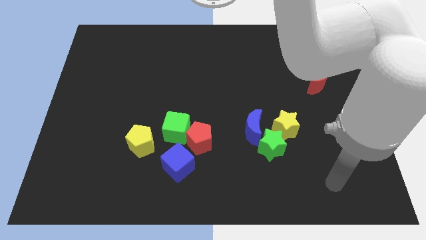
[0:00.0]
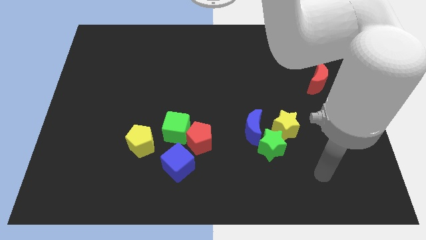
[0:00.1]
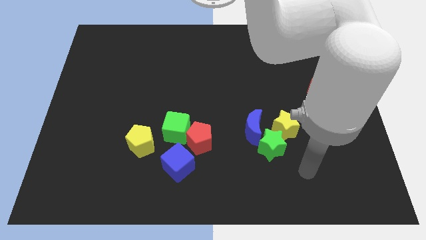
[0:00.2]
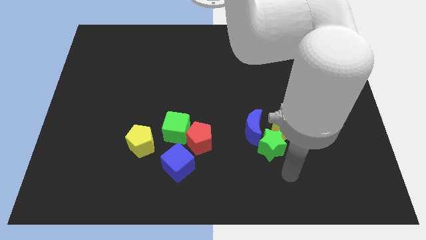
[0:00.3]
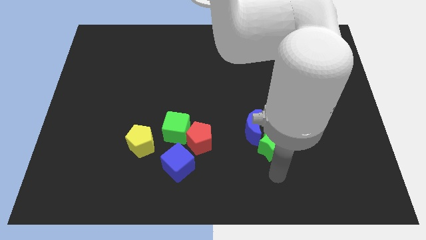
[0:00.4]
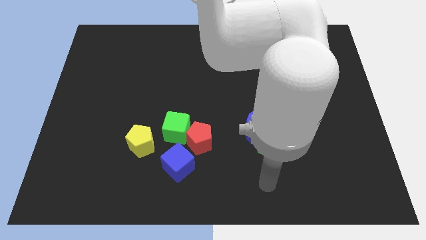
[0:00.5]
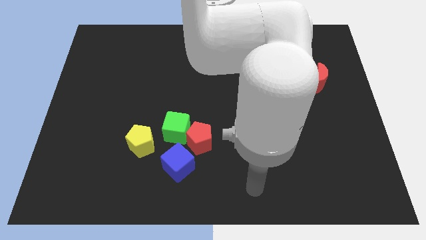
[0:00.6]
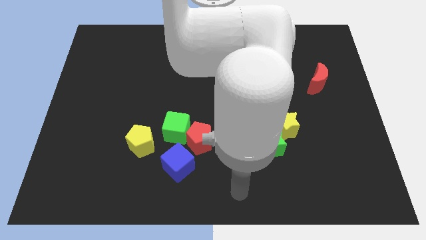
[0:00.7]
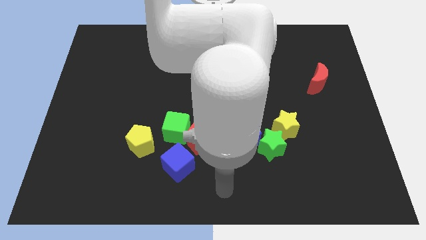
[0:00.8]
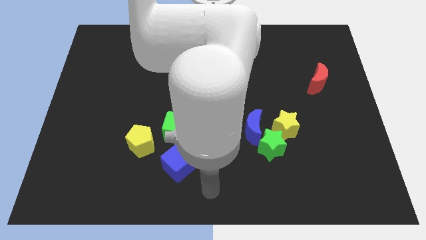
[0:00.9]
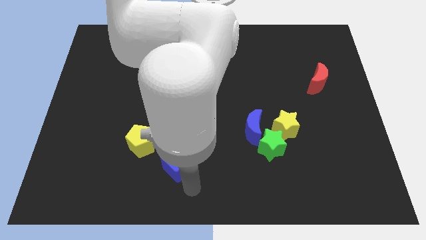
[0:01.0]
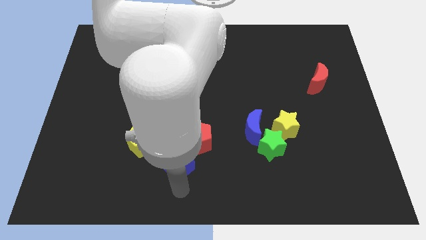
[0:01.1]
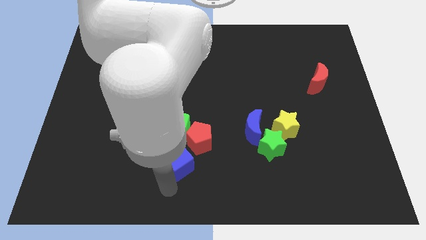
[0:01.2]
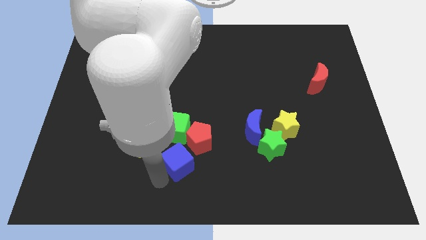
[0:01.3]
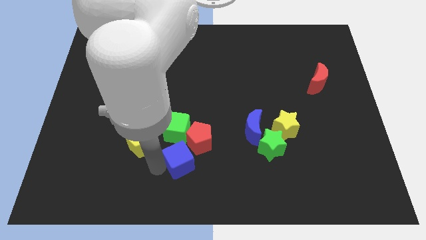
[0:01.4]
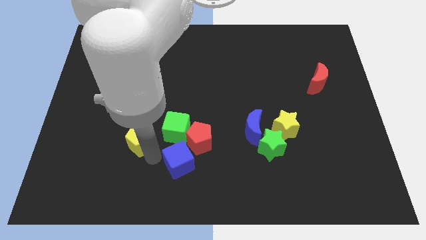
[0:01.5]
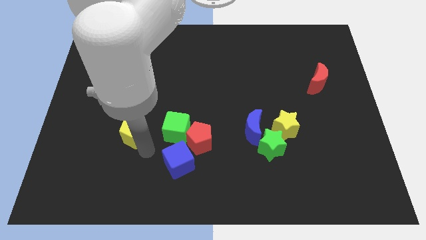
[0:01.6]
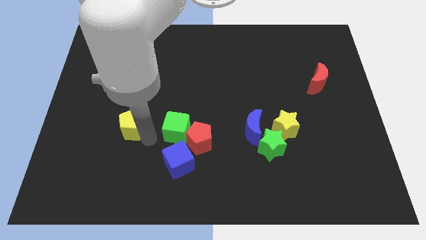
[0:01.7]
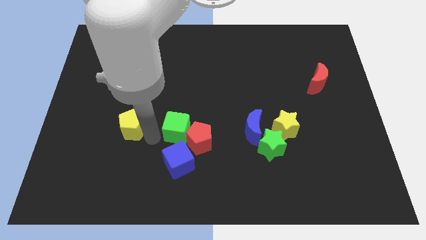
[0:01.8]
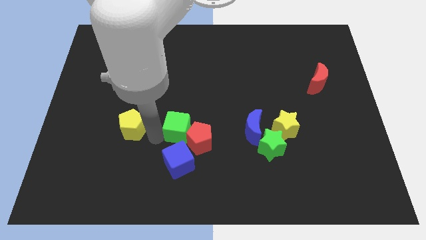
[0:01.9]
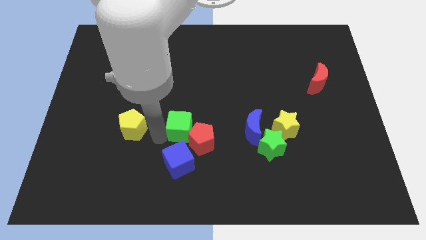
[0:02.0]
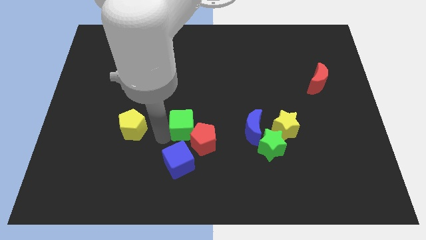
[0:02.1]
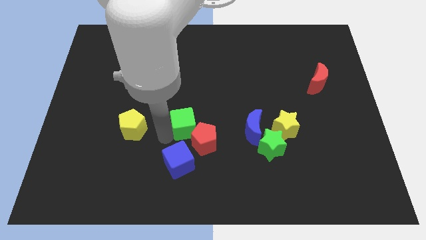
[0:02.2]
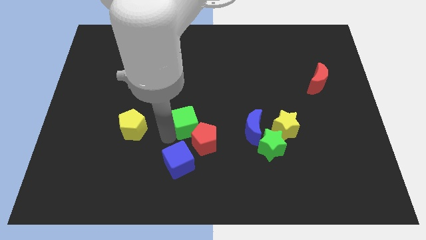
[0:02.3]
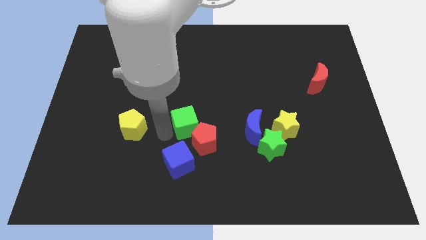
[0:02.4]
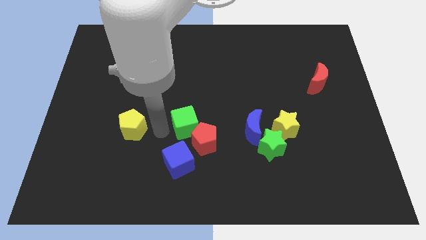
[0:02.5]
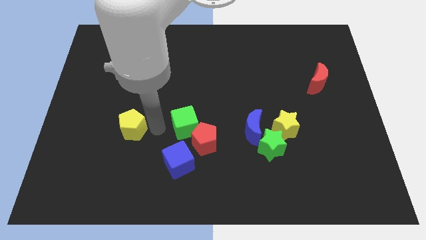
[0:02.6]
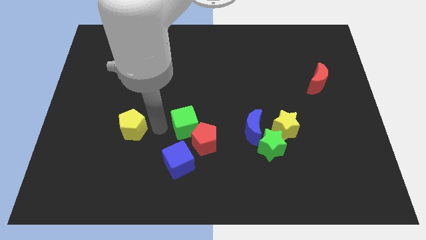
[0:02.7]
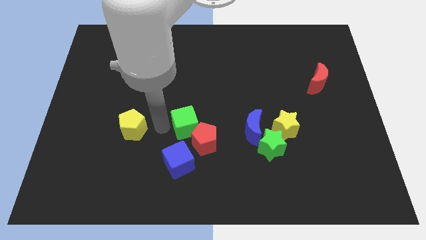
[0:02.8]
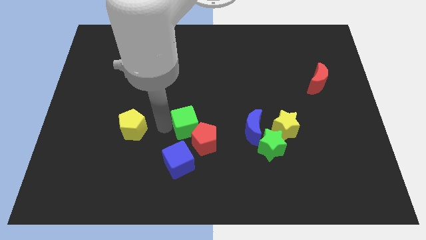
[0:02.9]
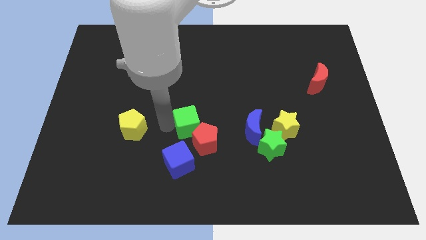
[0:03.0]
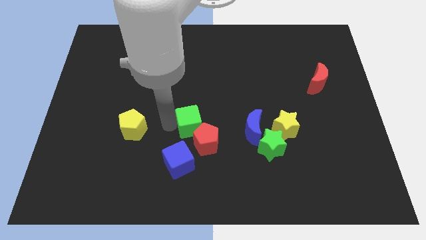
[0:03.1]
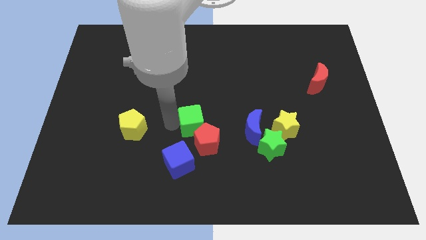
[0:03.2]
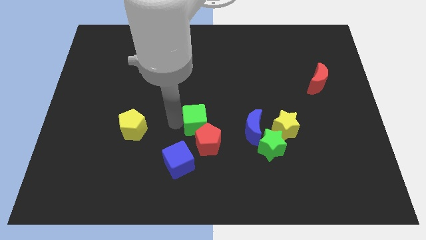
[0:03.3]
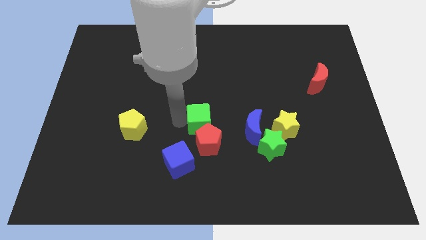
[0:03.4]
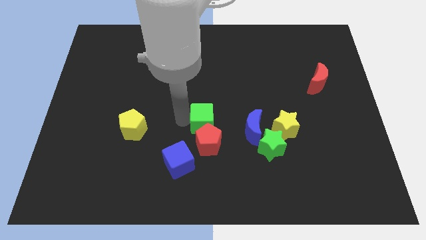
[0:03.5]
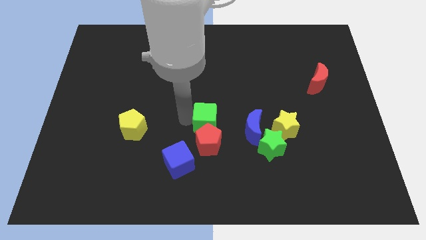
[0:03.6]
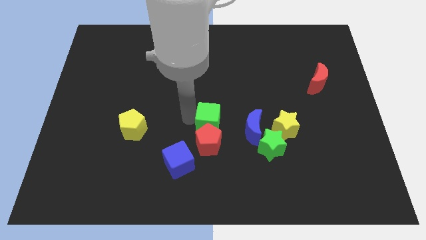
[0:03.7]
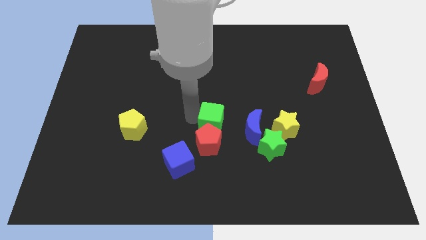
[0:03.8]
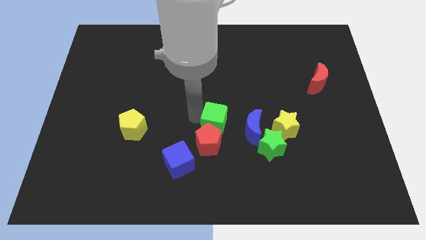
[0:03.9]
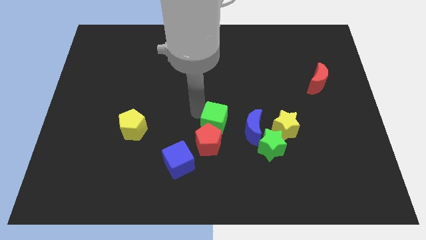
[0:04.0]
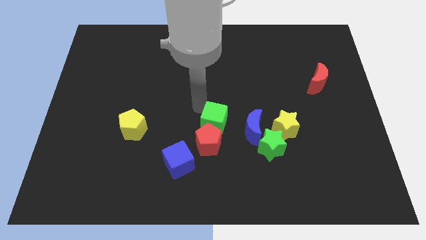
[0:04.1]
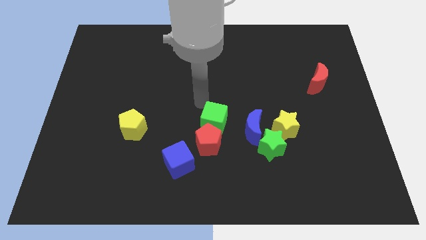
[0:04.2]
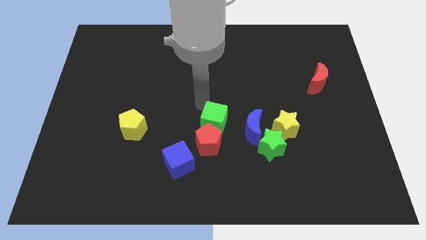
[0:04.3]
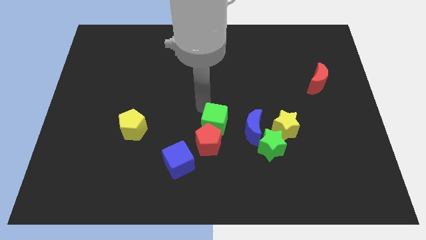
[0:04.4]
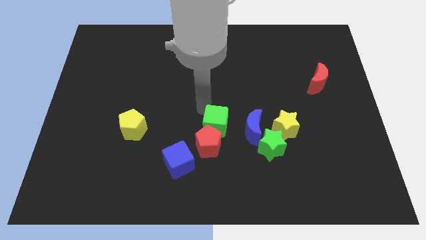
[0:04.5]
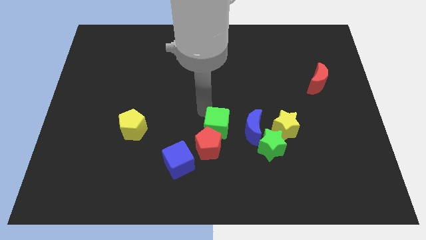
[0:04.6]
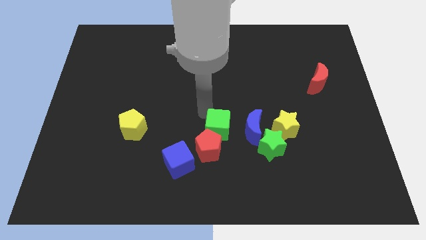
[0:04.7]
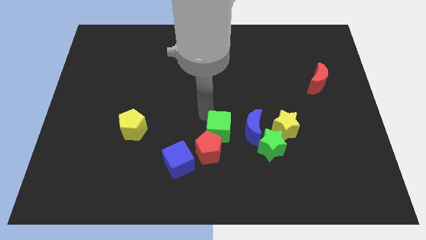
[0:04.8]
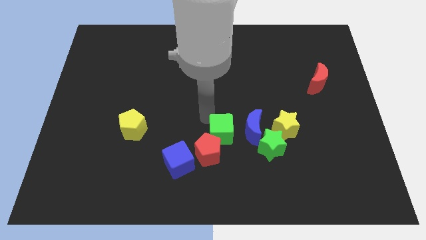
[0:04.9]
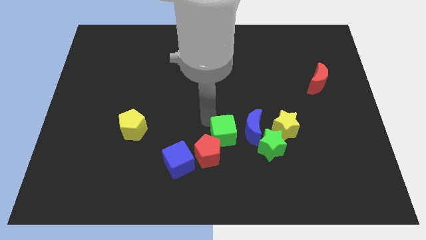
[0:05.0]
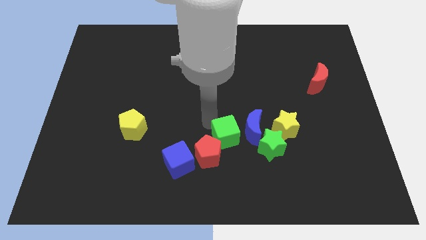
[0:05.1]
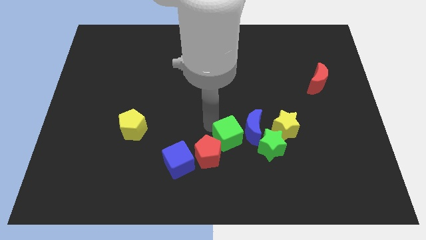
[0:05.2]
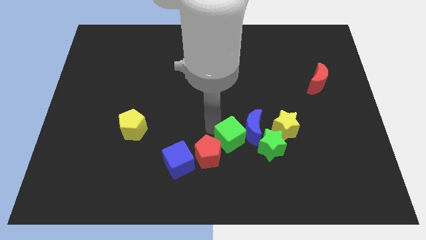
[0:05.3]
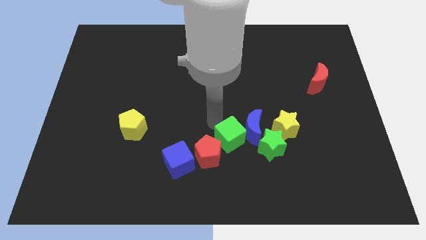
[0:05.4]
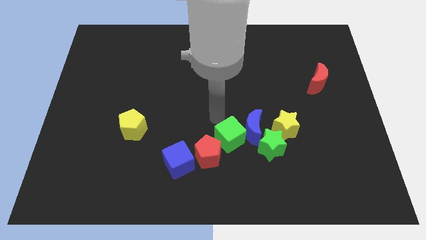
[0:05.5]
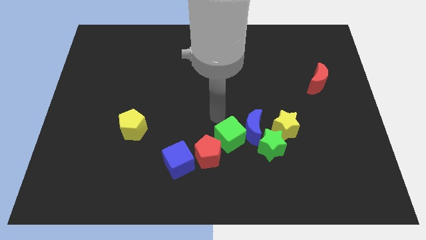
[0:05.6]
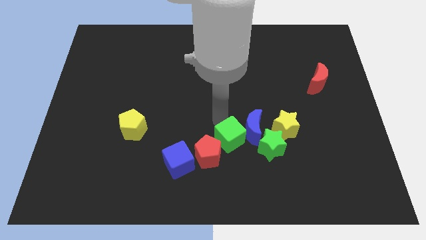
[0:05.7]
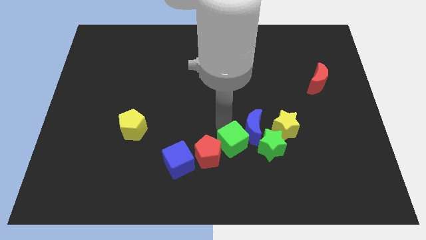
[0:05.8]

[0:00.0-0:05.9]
slide the green cube to the bottom side of the blue moon

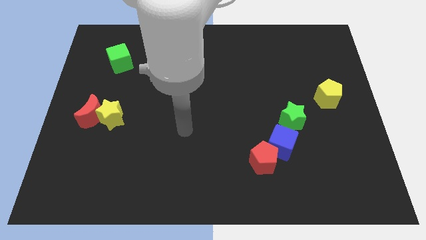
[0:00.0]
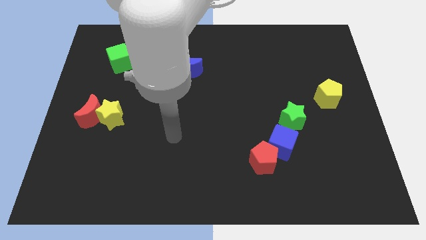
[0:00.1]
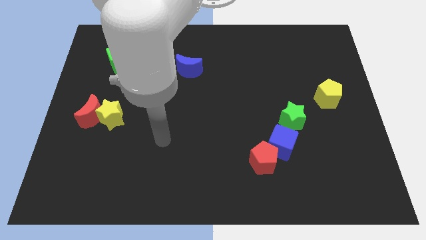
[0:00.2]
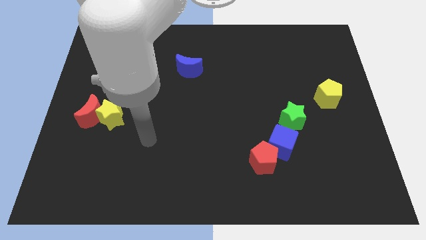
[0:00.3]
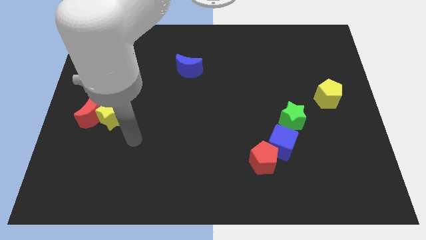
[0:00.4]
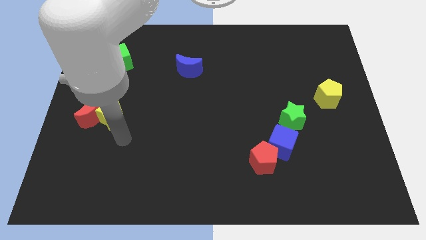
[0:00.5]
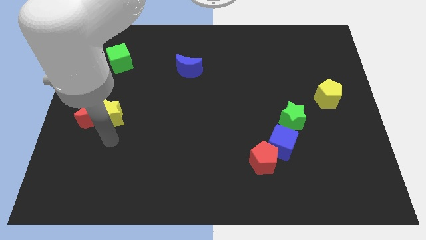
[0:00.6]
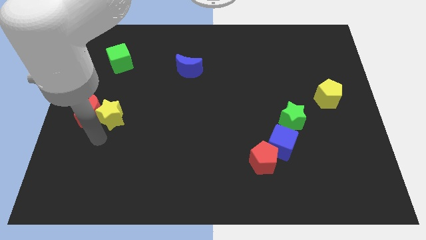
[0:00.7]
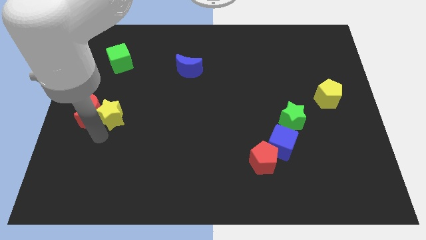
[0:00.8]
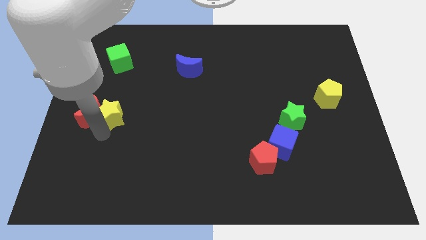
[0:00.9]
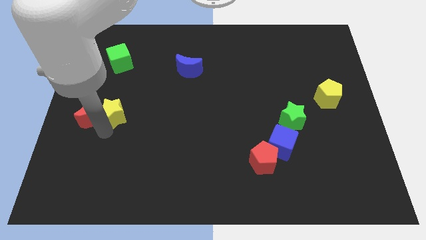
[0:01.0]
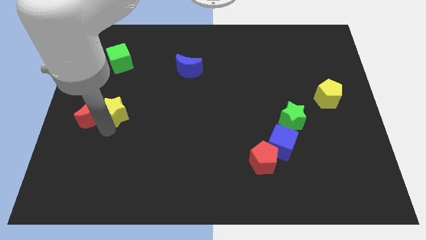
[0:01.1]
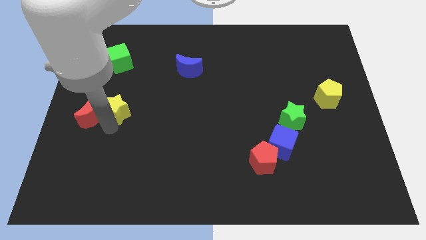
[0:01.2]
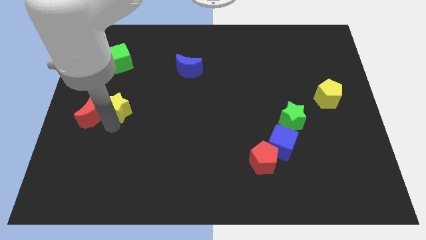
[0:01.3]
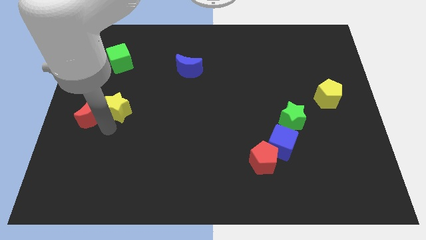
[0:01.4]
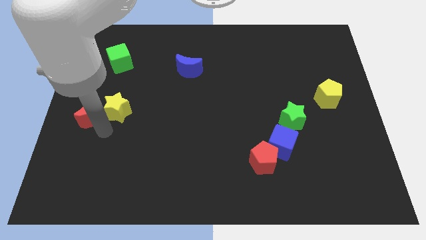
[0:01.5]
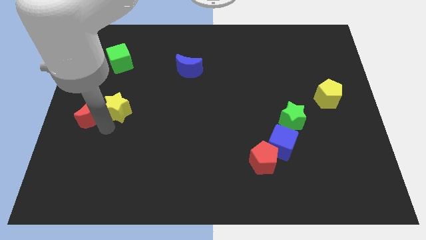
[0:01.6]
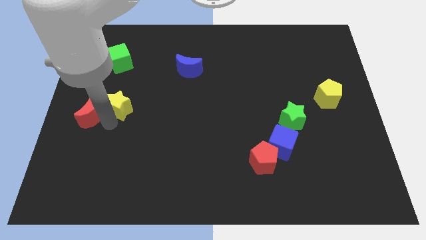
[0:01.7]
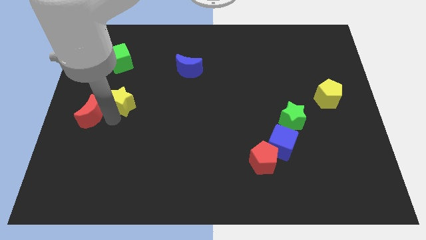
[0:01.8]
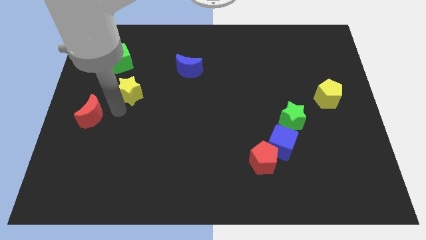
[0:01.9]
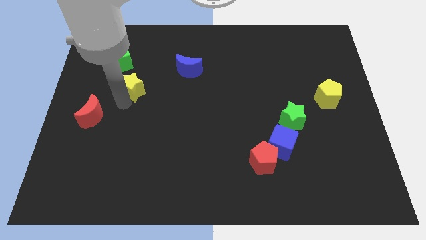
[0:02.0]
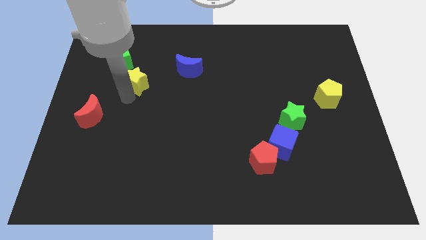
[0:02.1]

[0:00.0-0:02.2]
move the yellow star left of the blue moon
